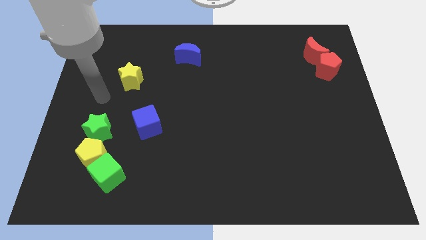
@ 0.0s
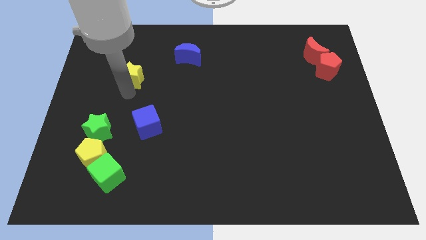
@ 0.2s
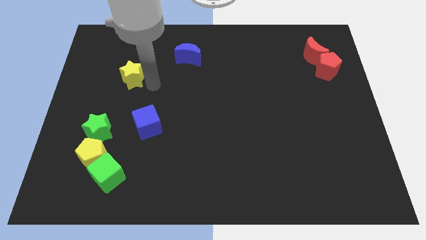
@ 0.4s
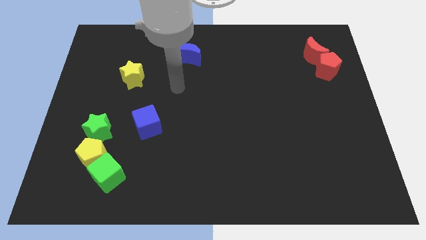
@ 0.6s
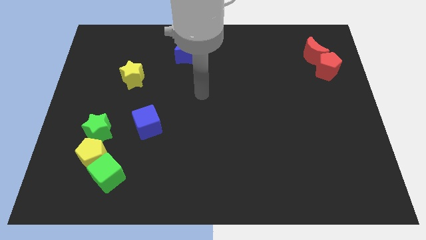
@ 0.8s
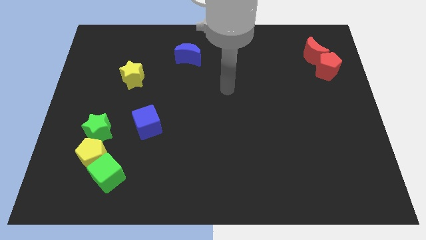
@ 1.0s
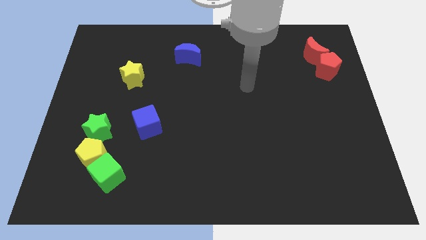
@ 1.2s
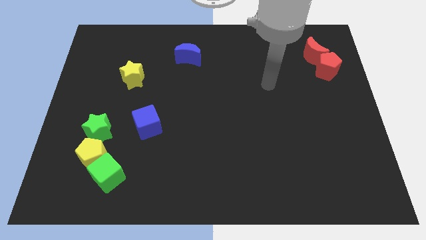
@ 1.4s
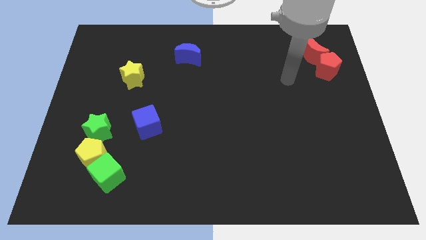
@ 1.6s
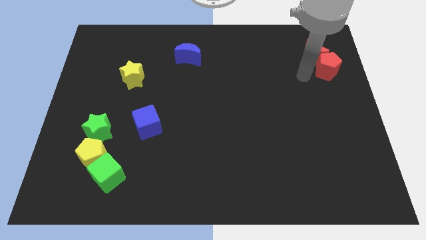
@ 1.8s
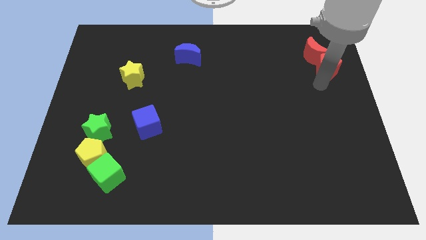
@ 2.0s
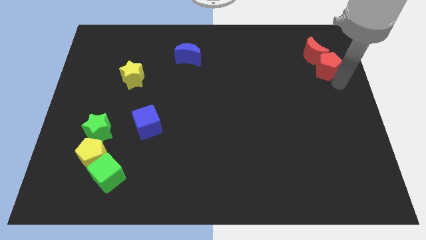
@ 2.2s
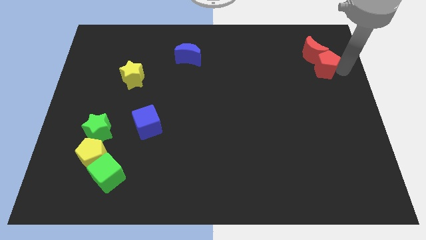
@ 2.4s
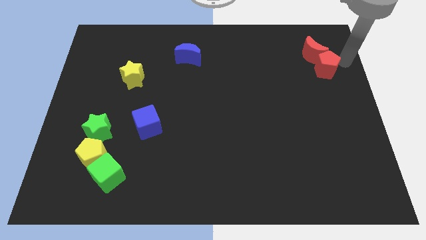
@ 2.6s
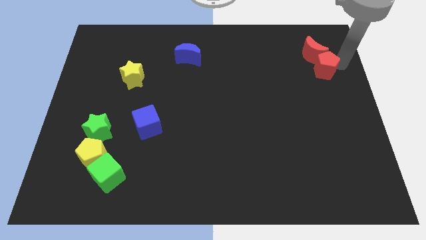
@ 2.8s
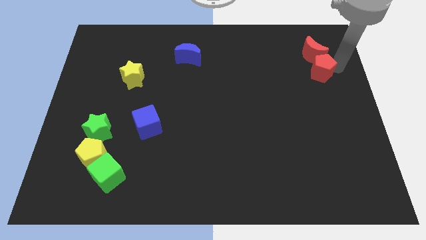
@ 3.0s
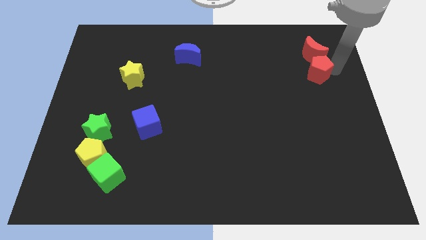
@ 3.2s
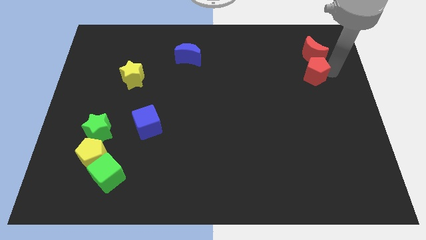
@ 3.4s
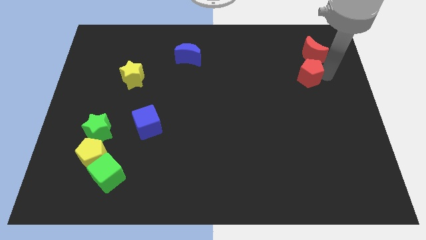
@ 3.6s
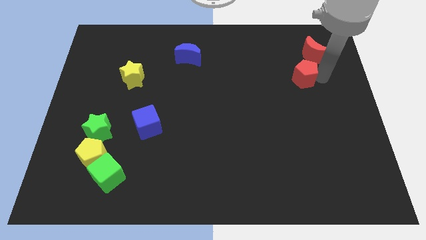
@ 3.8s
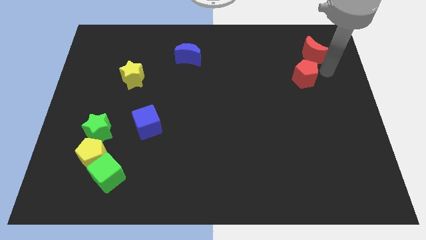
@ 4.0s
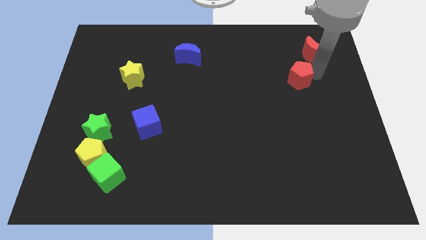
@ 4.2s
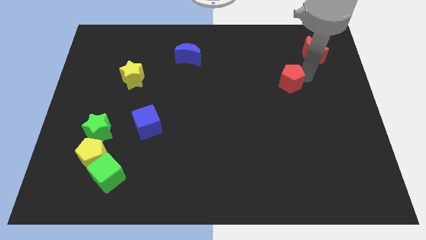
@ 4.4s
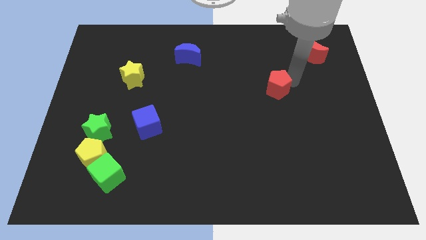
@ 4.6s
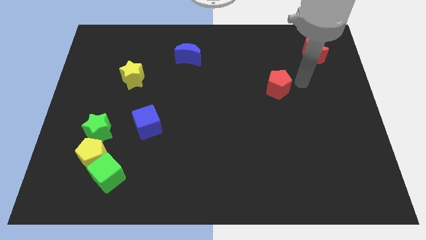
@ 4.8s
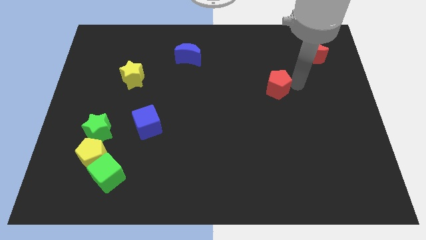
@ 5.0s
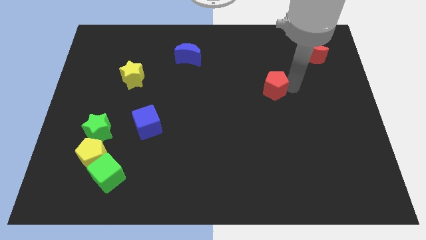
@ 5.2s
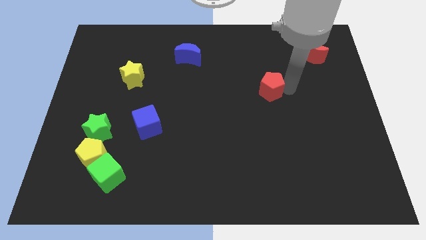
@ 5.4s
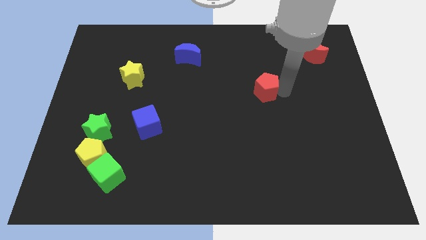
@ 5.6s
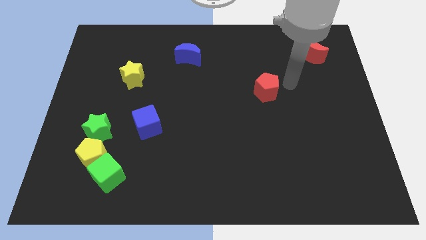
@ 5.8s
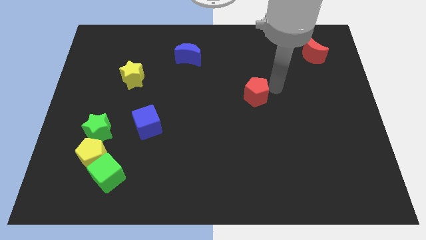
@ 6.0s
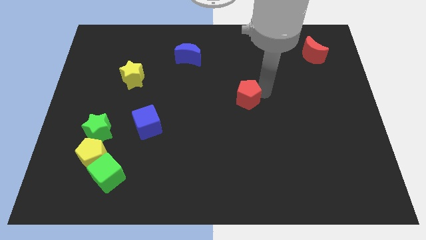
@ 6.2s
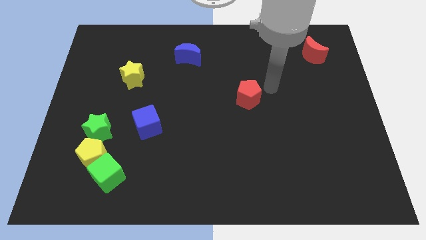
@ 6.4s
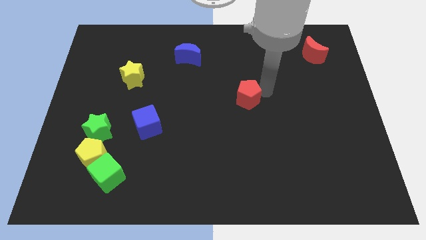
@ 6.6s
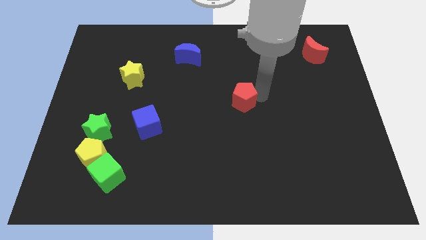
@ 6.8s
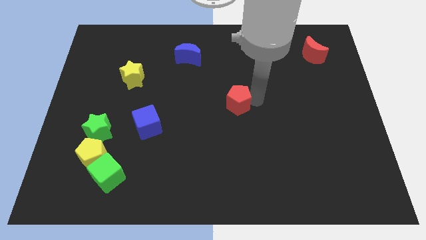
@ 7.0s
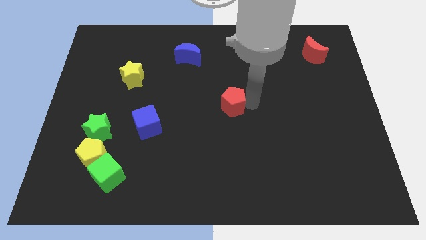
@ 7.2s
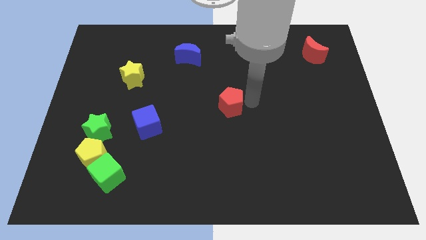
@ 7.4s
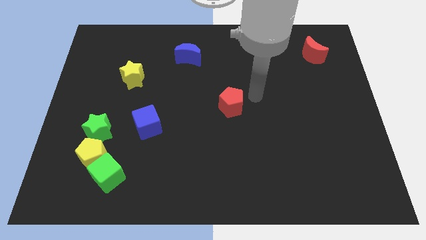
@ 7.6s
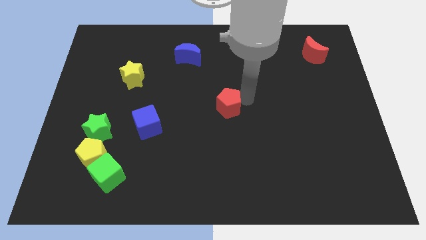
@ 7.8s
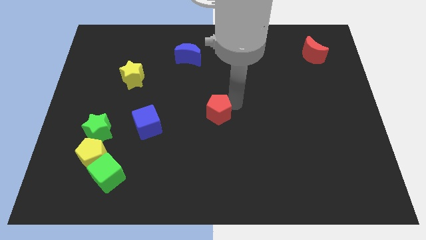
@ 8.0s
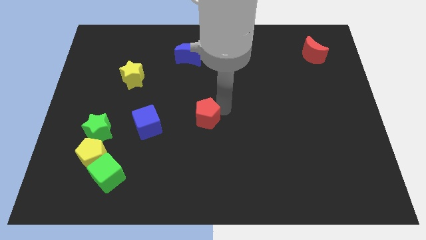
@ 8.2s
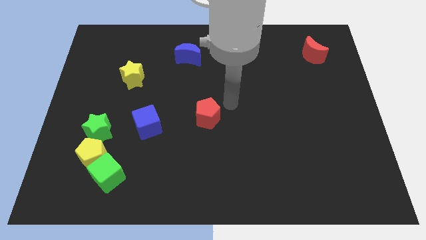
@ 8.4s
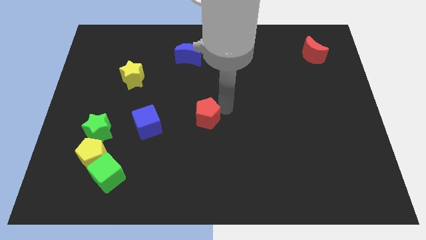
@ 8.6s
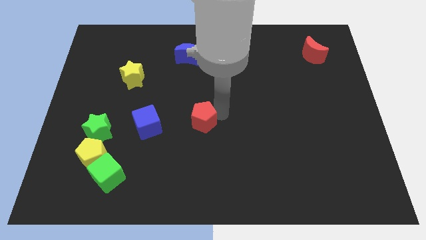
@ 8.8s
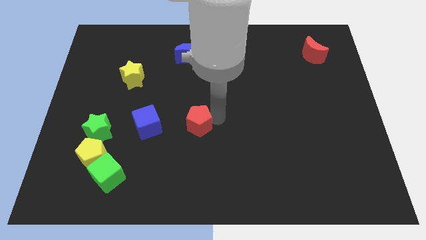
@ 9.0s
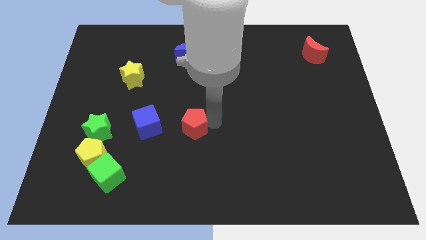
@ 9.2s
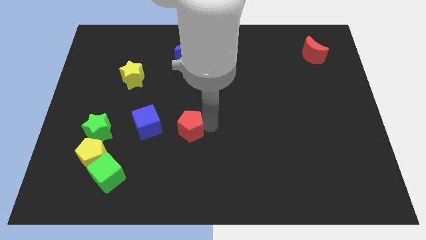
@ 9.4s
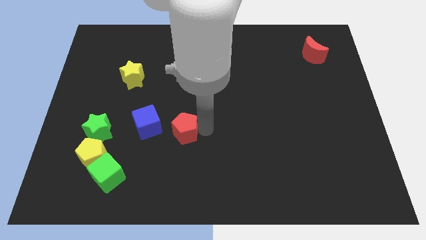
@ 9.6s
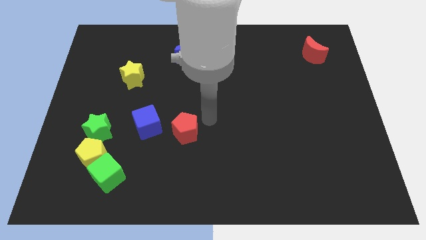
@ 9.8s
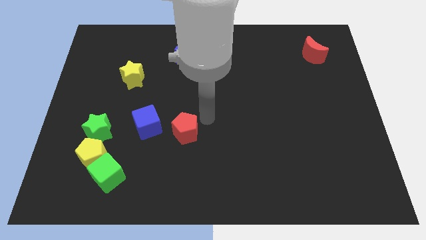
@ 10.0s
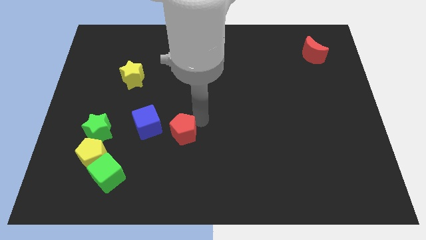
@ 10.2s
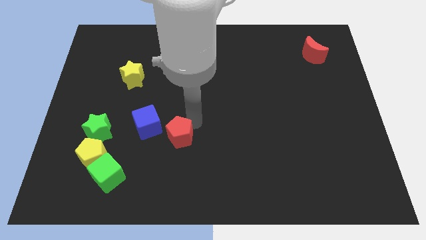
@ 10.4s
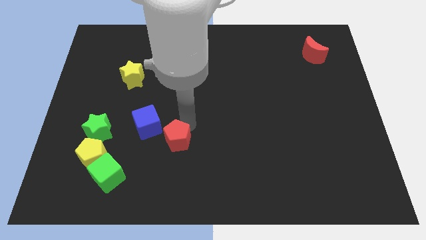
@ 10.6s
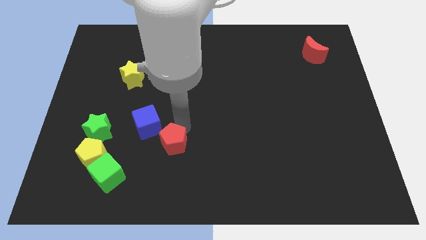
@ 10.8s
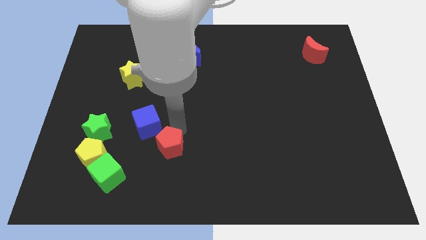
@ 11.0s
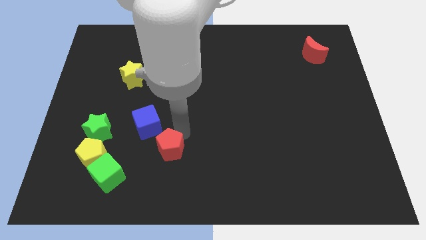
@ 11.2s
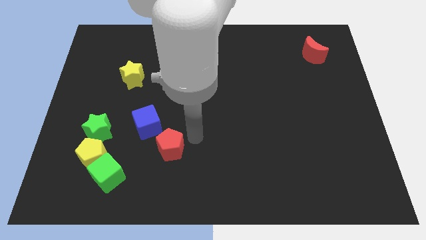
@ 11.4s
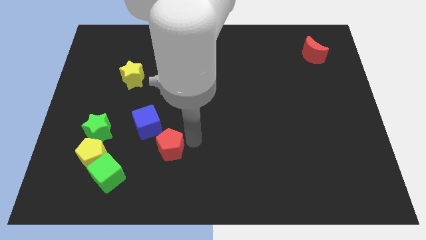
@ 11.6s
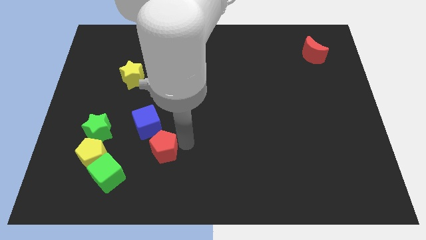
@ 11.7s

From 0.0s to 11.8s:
move the red pentagon to the right side of the yellow pentagon
